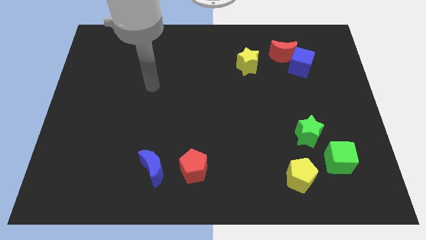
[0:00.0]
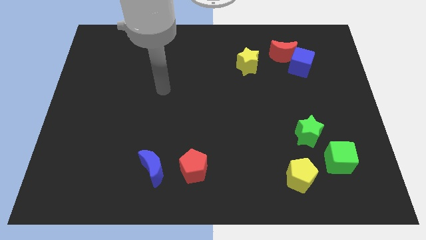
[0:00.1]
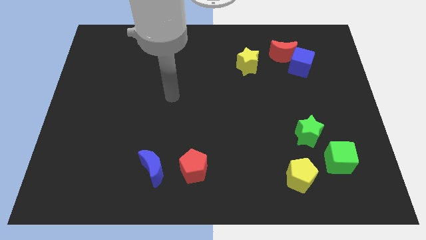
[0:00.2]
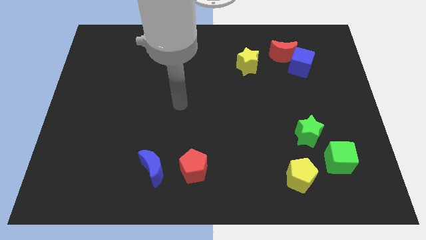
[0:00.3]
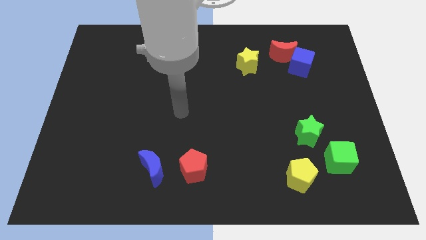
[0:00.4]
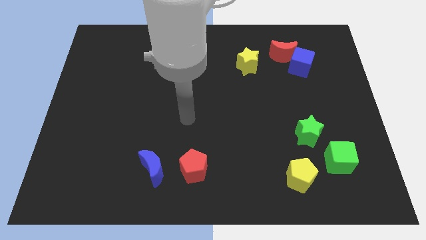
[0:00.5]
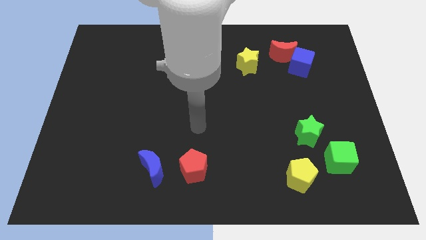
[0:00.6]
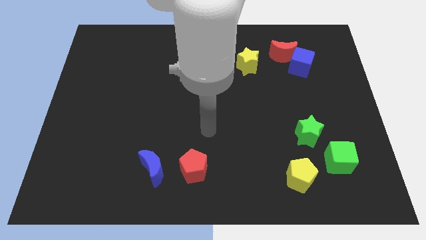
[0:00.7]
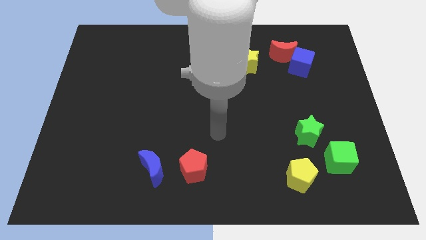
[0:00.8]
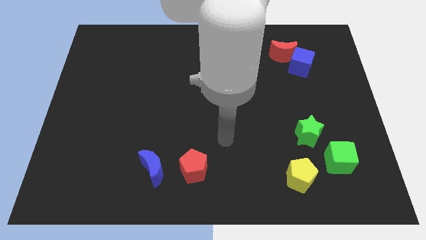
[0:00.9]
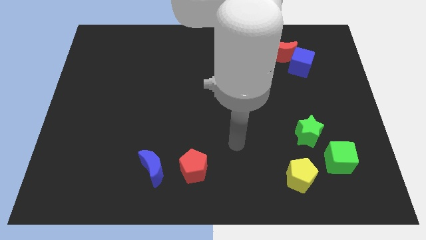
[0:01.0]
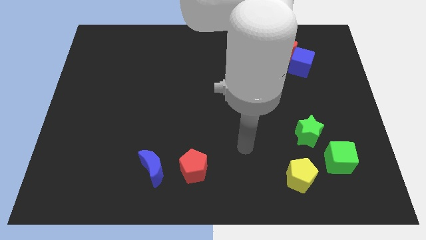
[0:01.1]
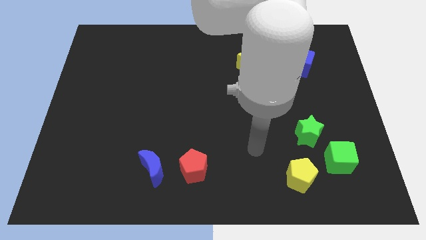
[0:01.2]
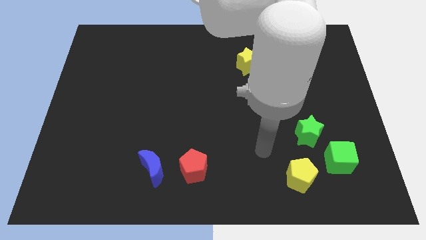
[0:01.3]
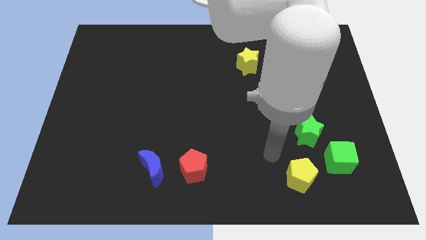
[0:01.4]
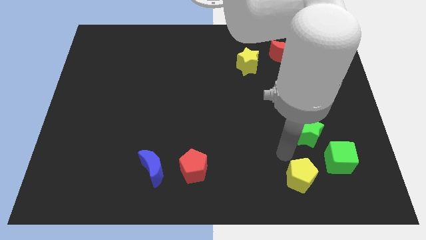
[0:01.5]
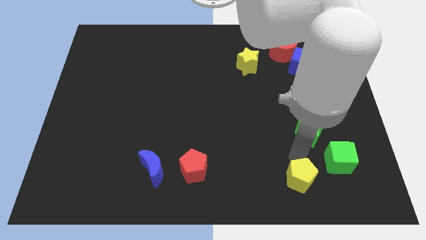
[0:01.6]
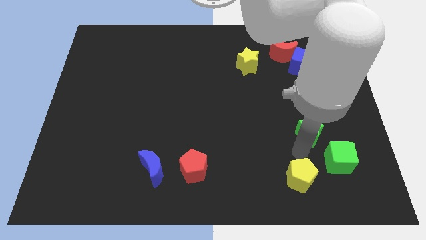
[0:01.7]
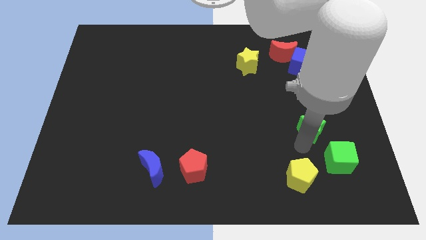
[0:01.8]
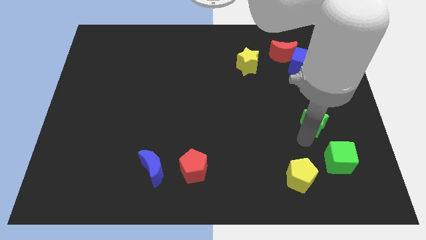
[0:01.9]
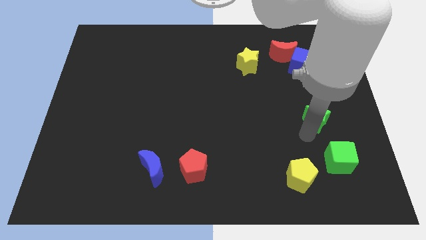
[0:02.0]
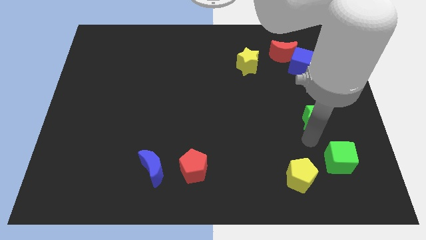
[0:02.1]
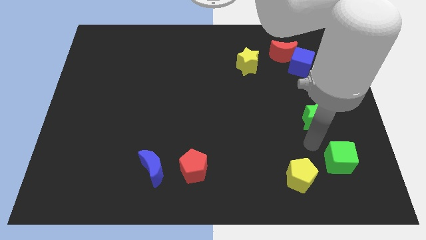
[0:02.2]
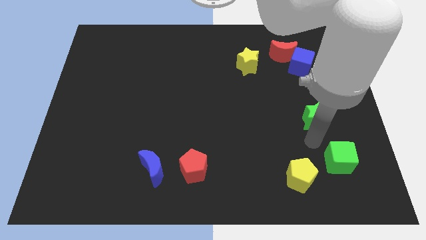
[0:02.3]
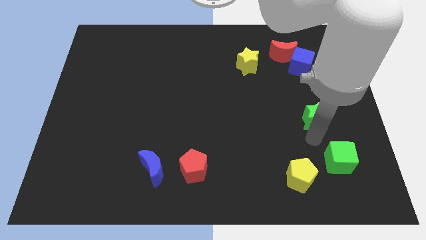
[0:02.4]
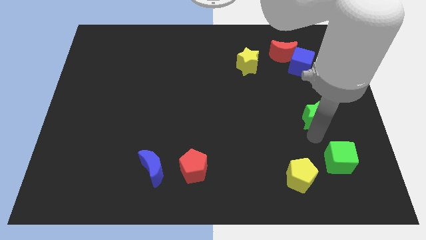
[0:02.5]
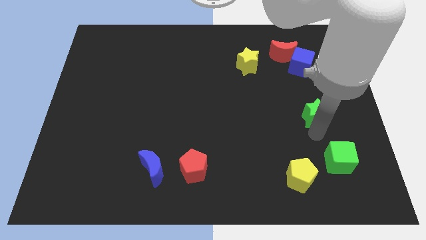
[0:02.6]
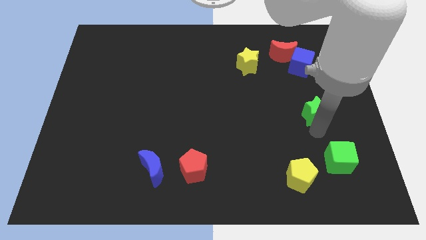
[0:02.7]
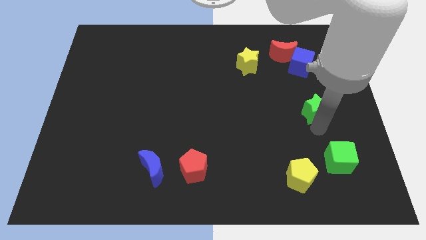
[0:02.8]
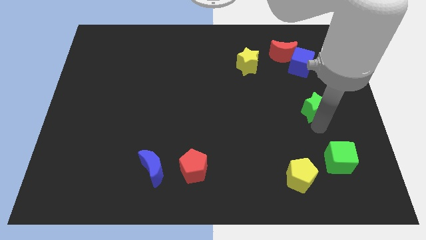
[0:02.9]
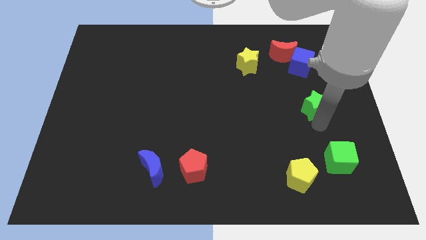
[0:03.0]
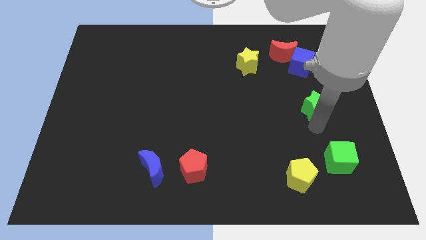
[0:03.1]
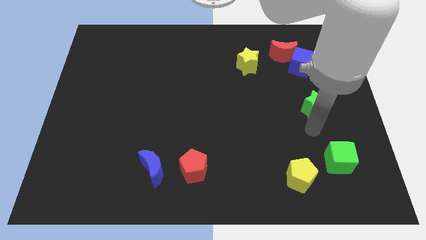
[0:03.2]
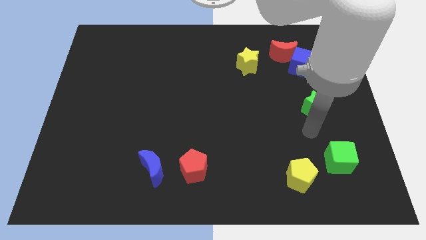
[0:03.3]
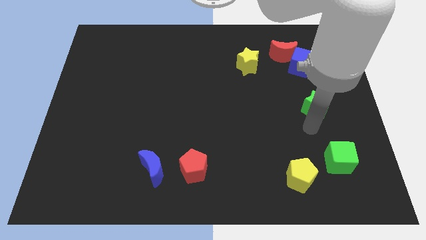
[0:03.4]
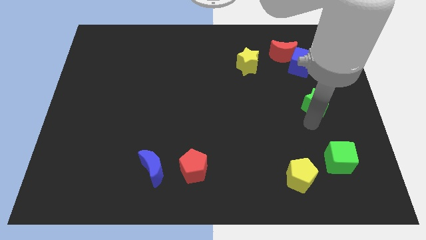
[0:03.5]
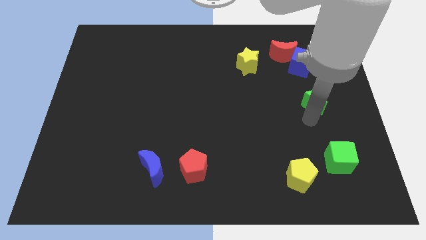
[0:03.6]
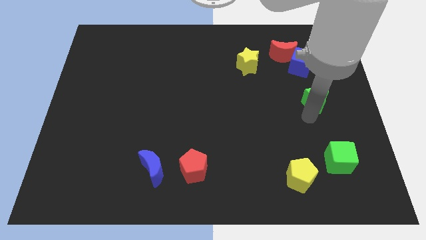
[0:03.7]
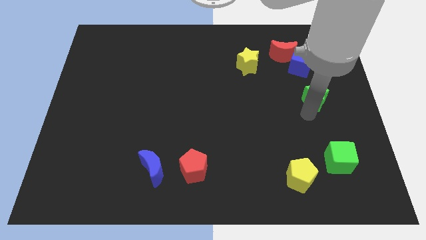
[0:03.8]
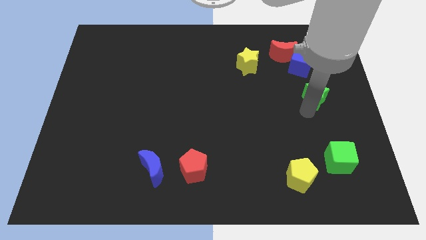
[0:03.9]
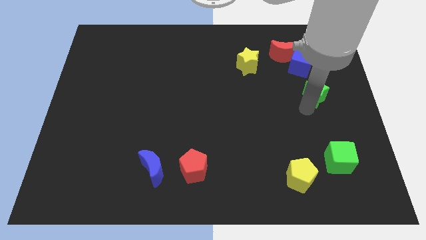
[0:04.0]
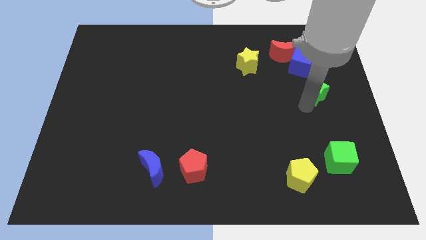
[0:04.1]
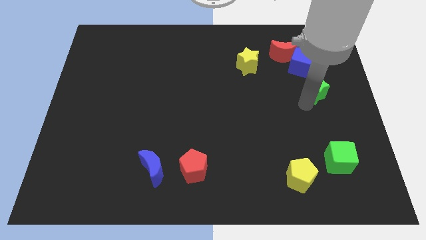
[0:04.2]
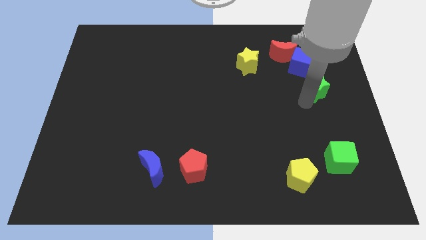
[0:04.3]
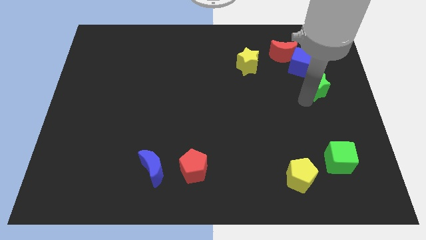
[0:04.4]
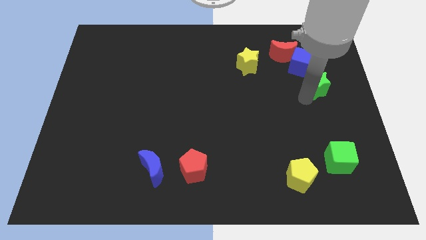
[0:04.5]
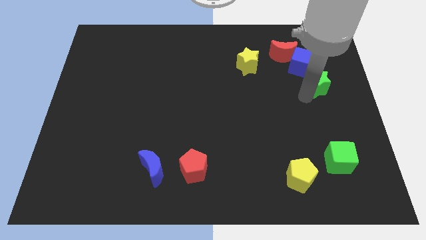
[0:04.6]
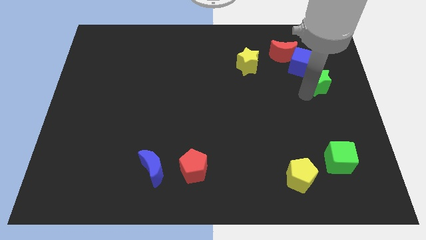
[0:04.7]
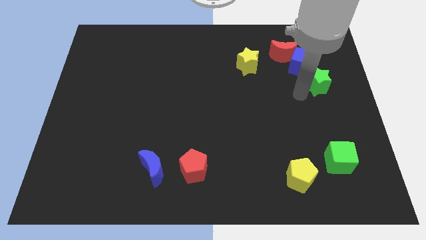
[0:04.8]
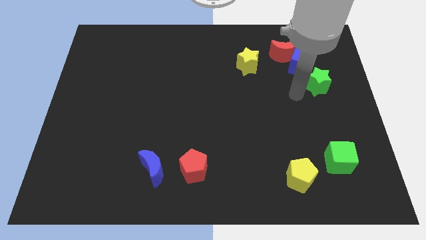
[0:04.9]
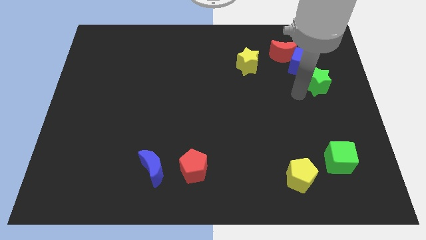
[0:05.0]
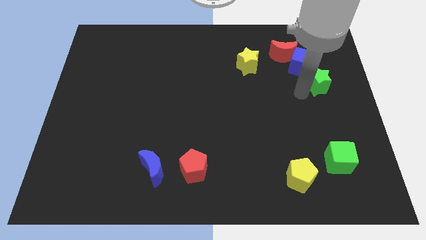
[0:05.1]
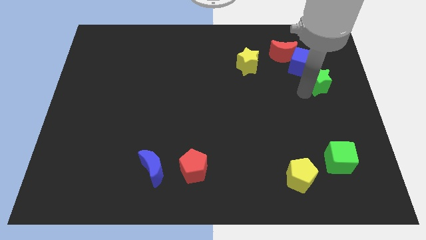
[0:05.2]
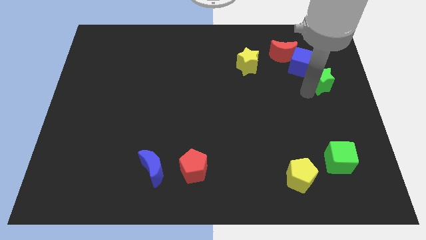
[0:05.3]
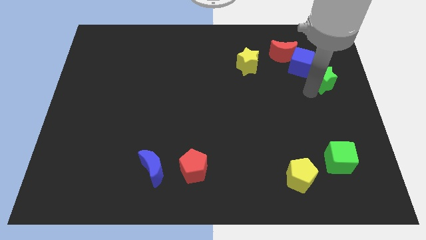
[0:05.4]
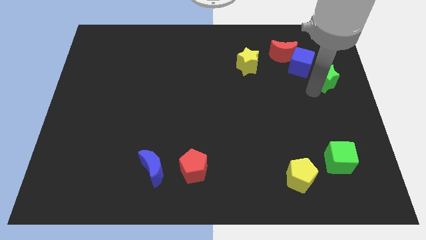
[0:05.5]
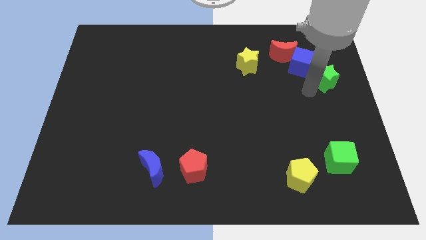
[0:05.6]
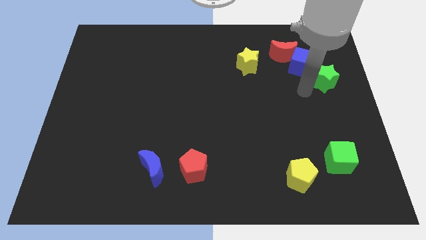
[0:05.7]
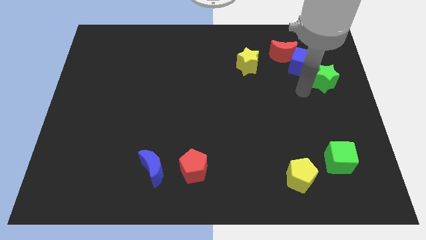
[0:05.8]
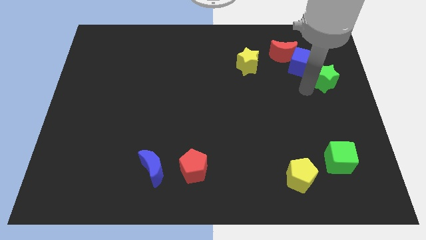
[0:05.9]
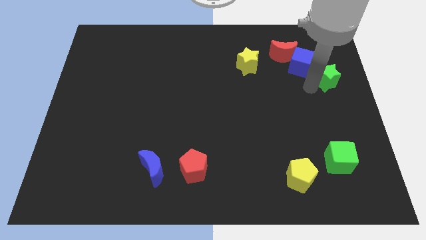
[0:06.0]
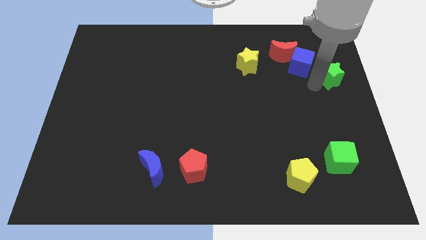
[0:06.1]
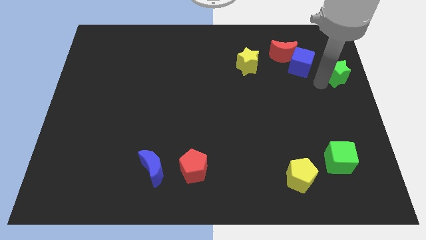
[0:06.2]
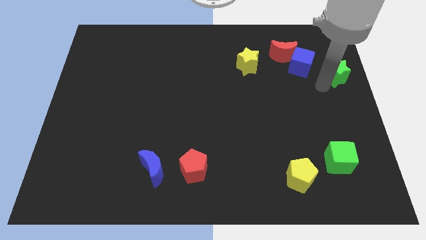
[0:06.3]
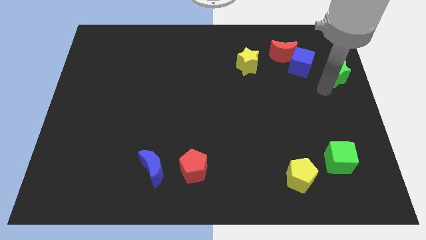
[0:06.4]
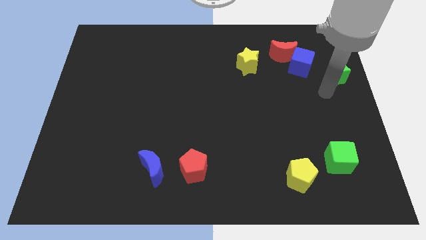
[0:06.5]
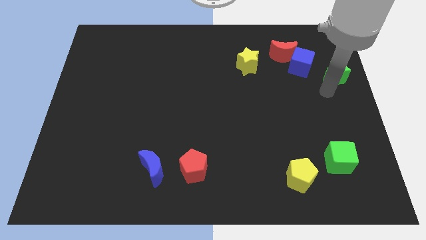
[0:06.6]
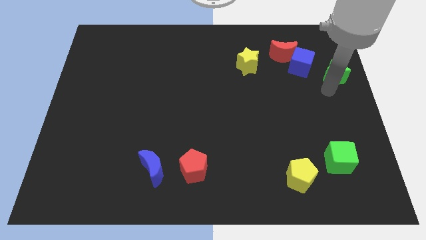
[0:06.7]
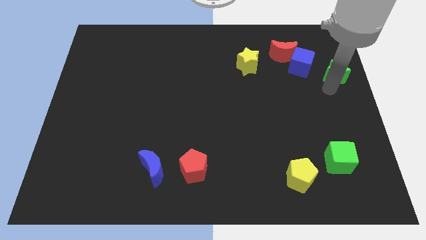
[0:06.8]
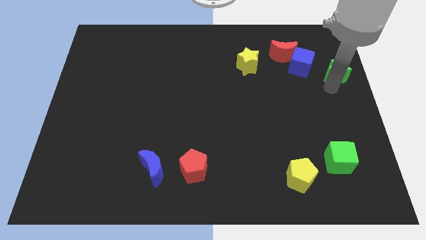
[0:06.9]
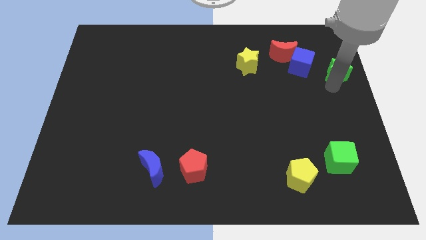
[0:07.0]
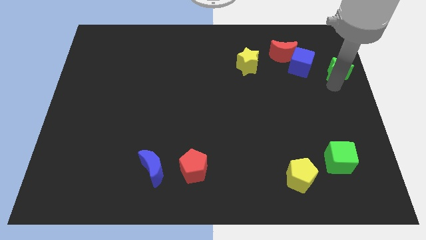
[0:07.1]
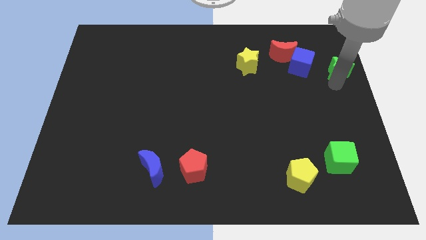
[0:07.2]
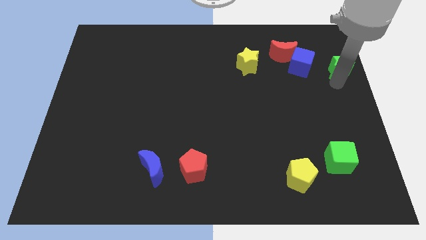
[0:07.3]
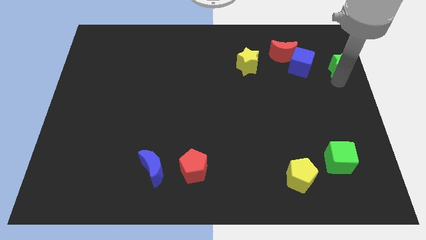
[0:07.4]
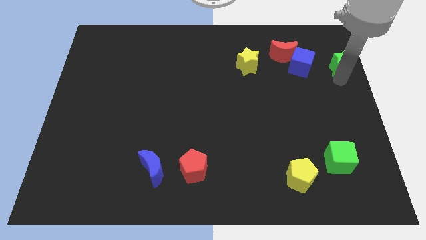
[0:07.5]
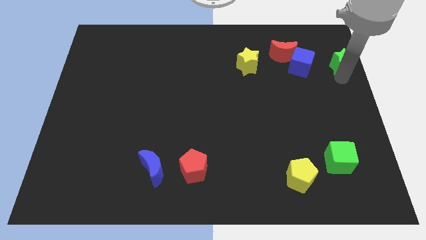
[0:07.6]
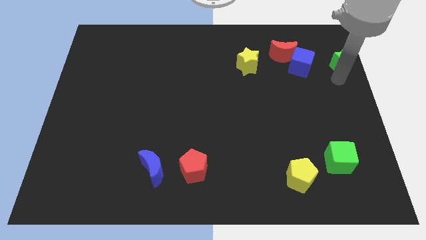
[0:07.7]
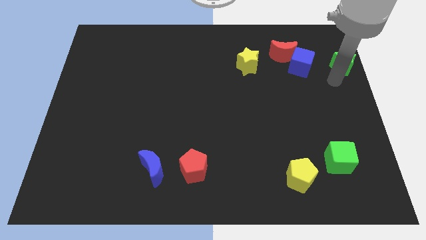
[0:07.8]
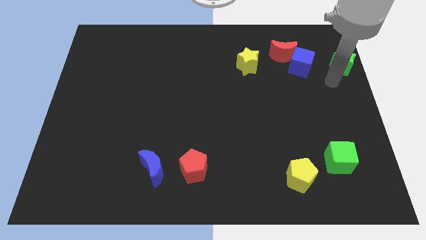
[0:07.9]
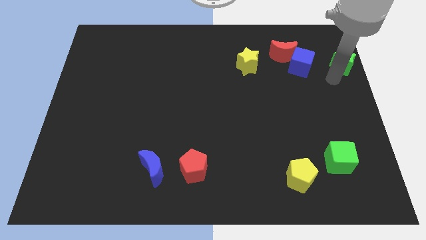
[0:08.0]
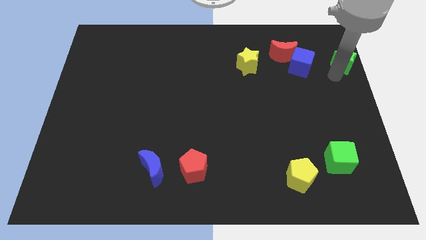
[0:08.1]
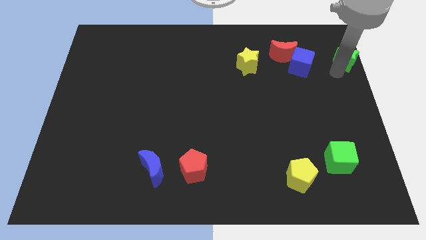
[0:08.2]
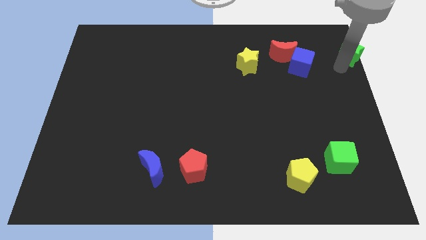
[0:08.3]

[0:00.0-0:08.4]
put the green star to the upper right corner
